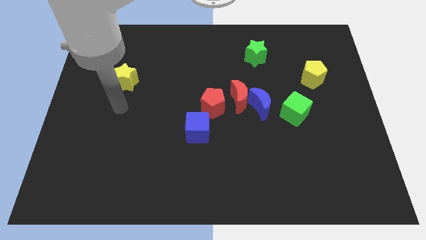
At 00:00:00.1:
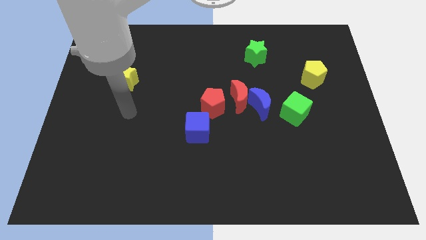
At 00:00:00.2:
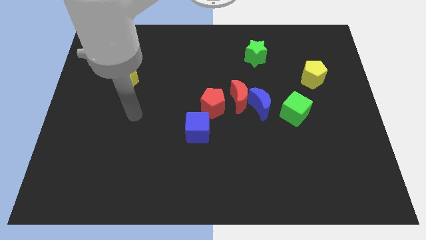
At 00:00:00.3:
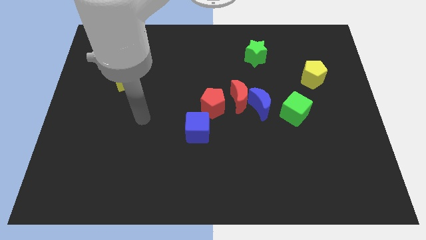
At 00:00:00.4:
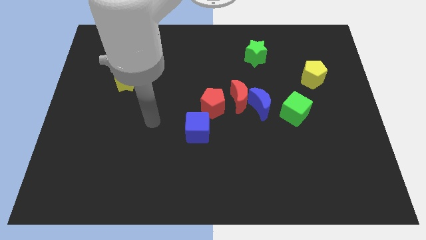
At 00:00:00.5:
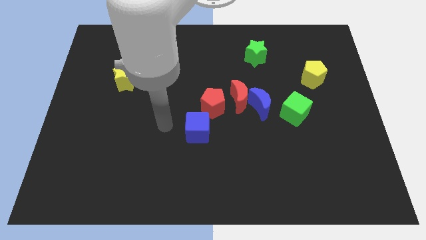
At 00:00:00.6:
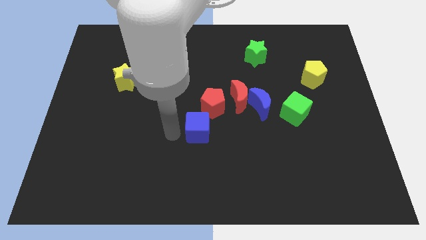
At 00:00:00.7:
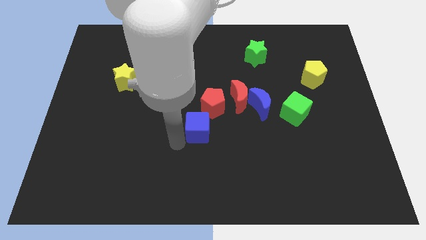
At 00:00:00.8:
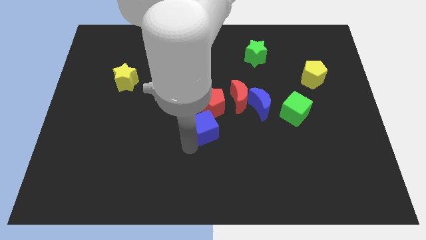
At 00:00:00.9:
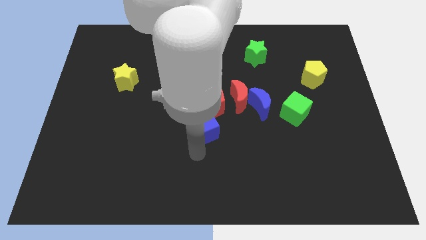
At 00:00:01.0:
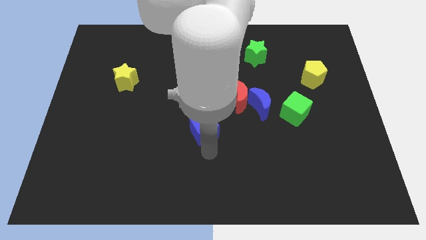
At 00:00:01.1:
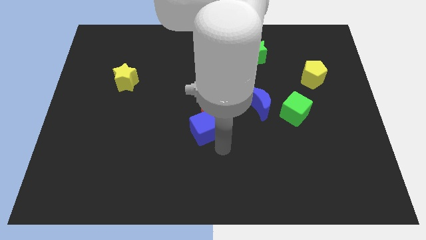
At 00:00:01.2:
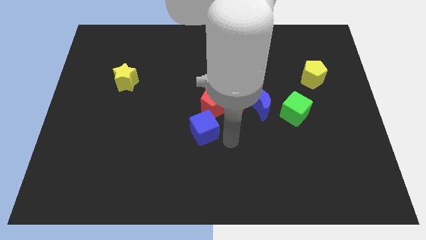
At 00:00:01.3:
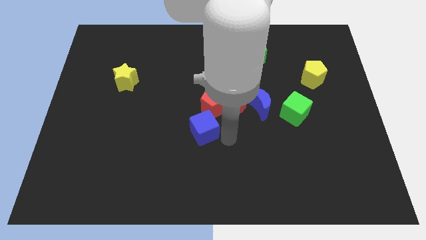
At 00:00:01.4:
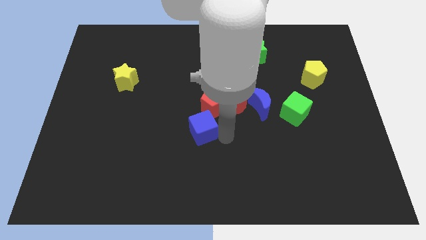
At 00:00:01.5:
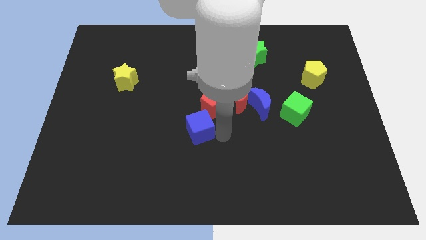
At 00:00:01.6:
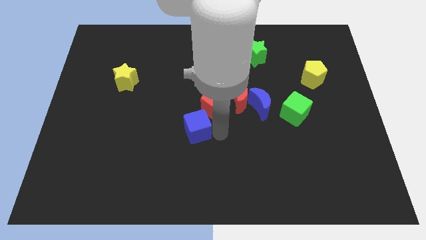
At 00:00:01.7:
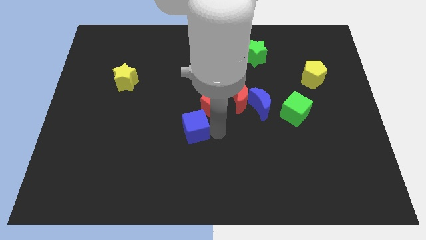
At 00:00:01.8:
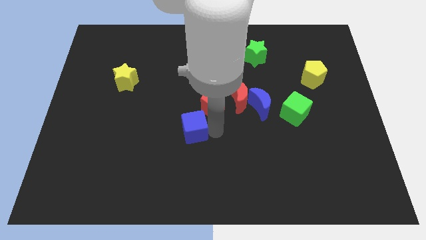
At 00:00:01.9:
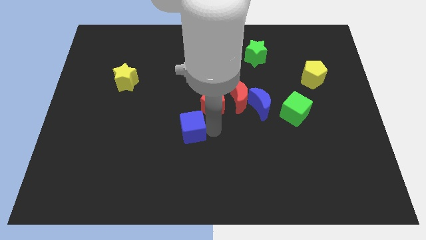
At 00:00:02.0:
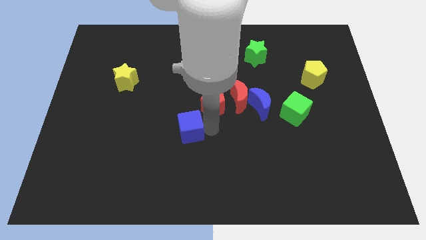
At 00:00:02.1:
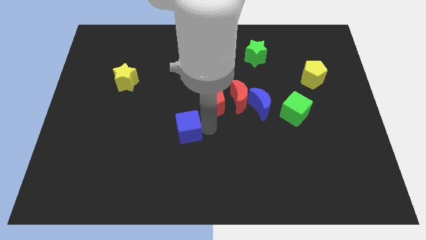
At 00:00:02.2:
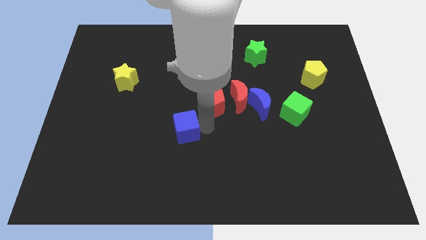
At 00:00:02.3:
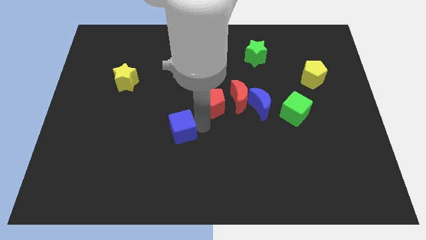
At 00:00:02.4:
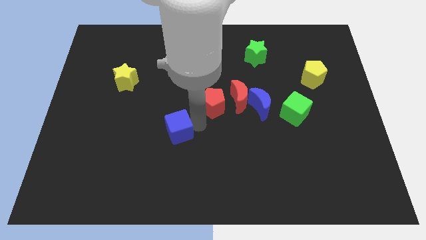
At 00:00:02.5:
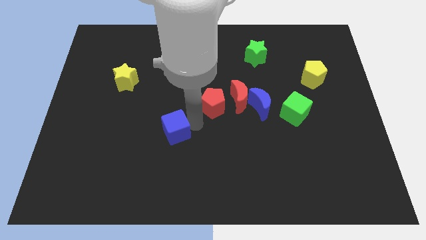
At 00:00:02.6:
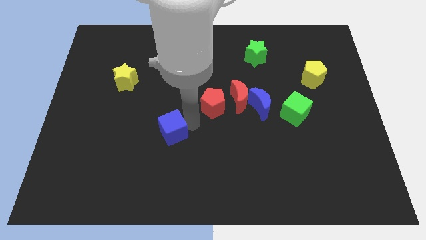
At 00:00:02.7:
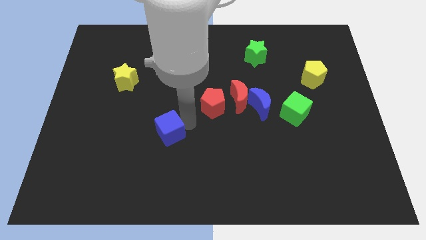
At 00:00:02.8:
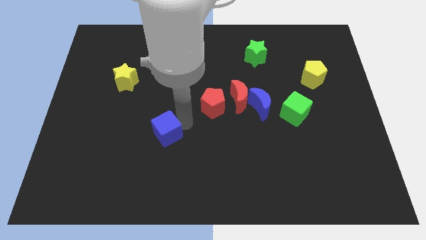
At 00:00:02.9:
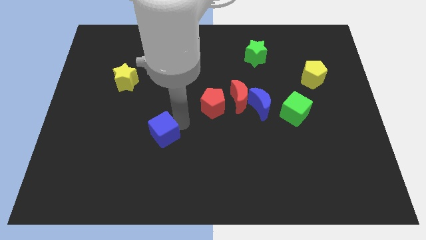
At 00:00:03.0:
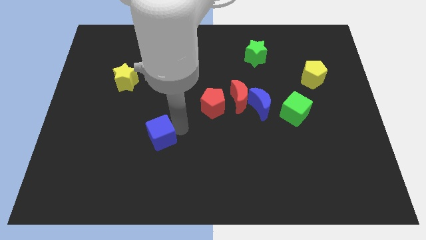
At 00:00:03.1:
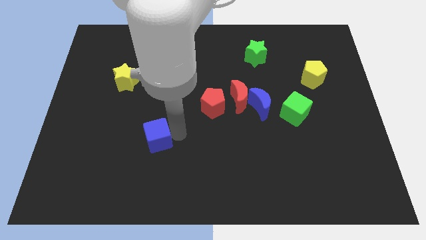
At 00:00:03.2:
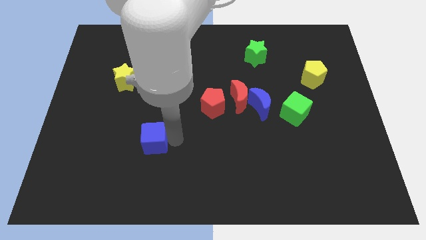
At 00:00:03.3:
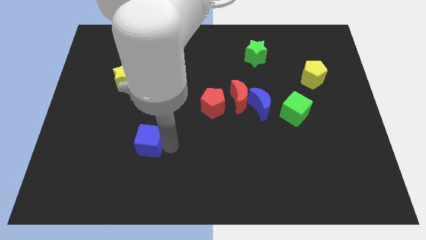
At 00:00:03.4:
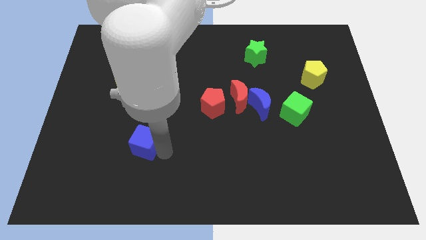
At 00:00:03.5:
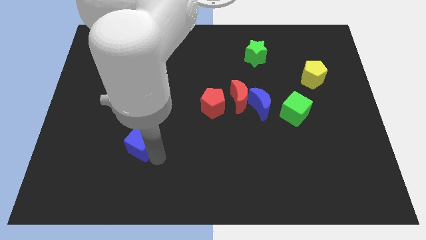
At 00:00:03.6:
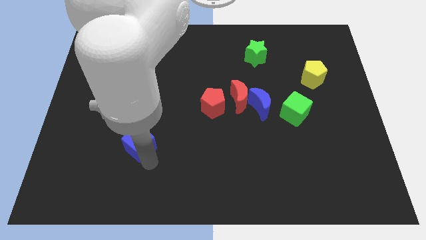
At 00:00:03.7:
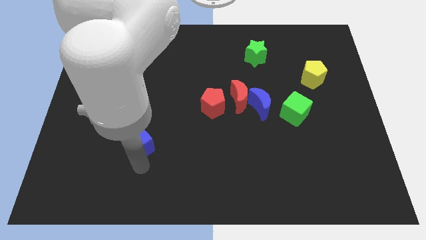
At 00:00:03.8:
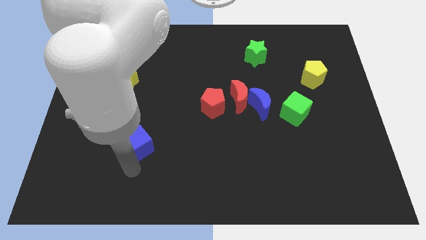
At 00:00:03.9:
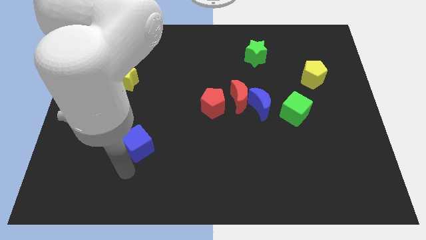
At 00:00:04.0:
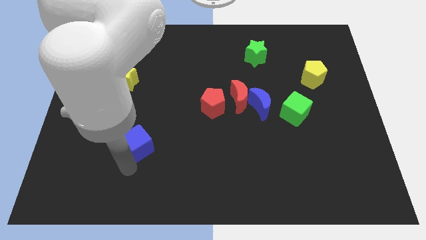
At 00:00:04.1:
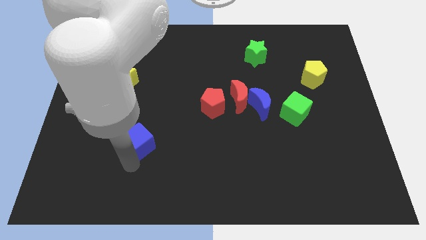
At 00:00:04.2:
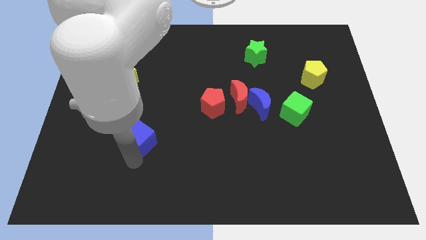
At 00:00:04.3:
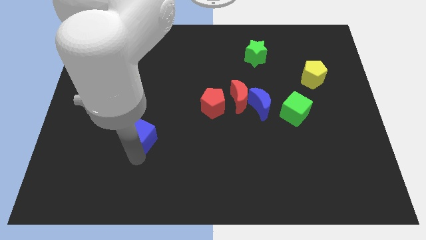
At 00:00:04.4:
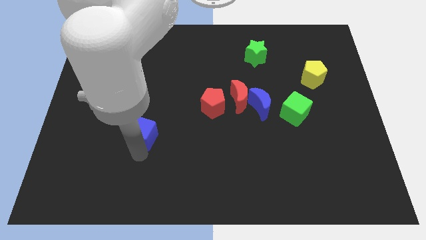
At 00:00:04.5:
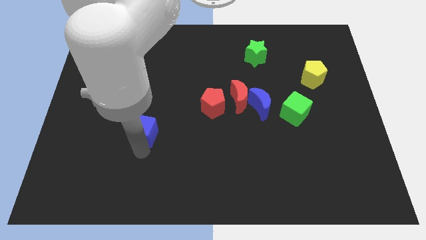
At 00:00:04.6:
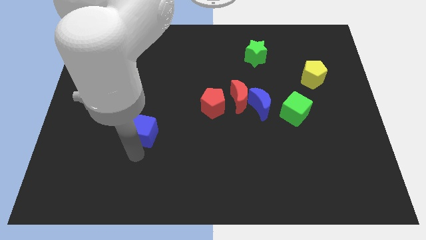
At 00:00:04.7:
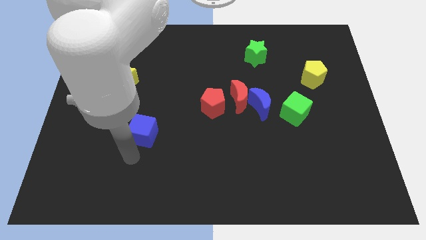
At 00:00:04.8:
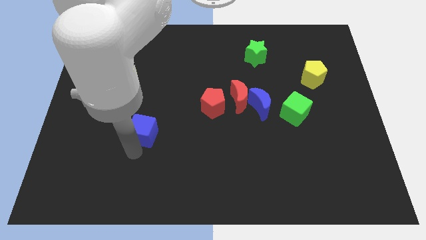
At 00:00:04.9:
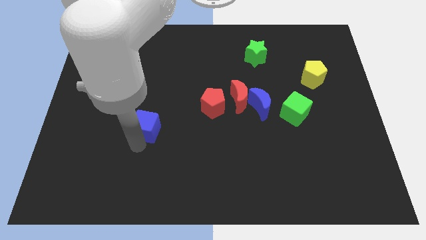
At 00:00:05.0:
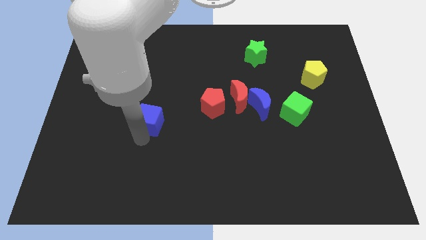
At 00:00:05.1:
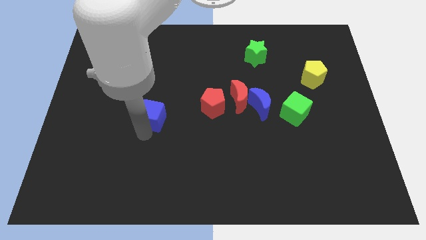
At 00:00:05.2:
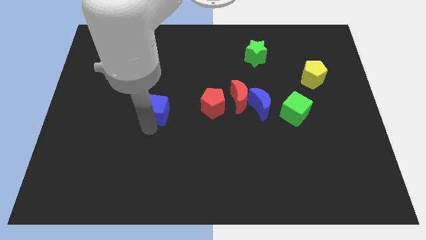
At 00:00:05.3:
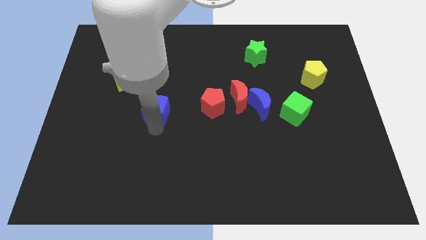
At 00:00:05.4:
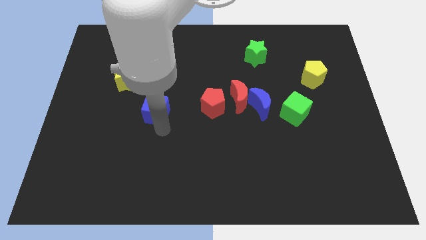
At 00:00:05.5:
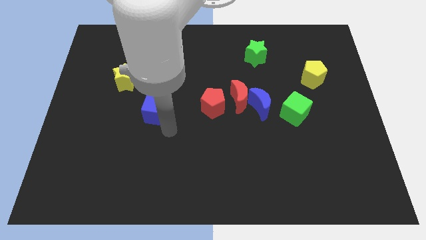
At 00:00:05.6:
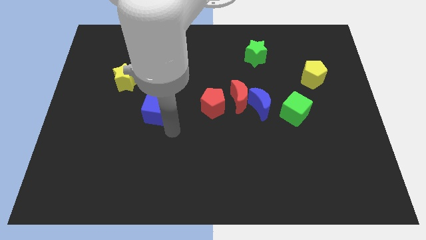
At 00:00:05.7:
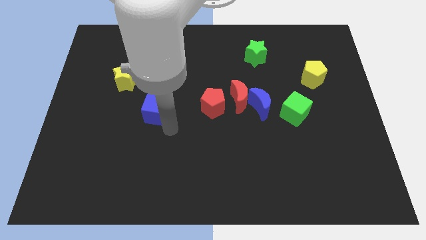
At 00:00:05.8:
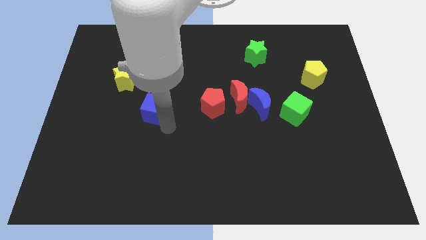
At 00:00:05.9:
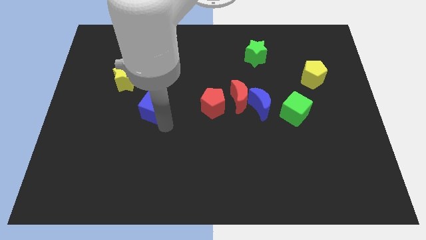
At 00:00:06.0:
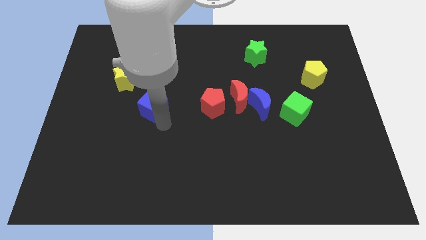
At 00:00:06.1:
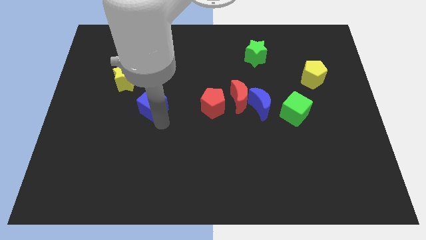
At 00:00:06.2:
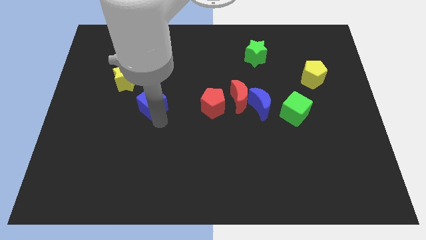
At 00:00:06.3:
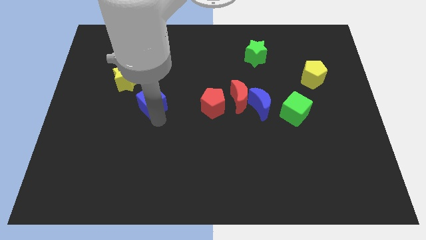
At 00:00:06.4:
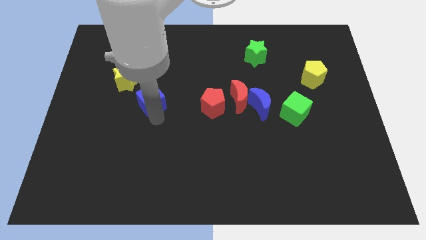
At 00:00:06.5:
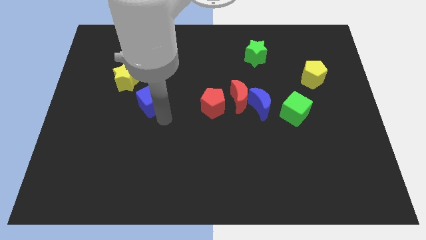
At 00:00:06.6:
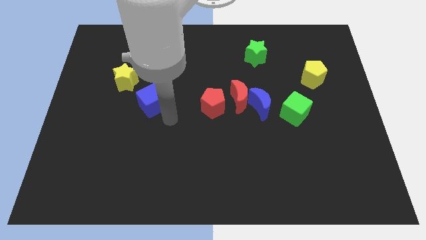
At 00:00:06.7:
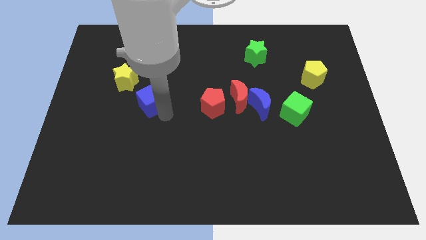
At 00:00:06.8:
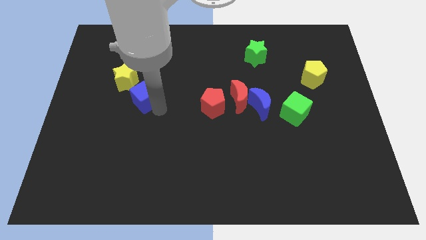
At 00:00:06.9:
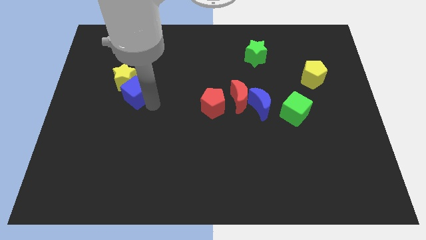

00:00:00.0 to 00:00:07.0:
move the blue cube towards the yellow star
